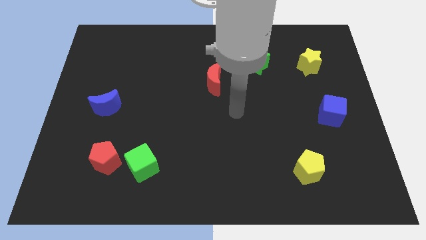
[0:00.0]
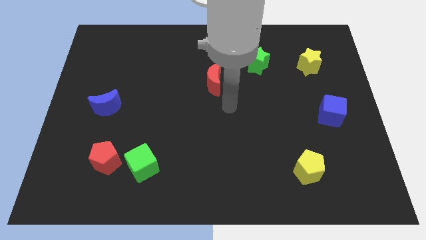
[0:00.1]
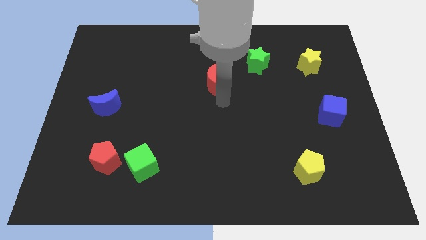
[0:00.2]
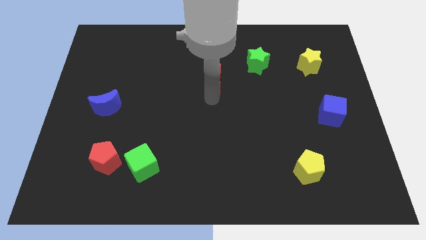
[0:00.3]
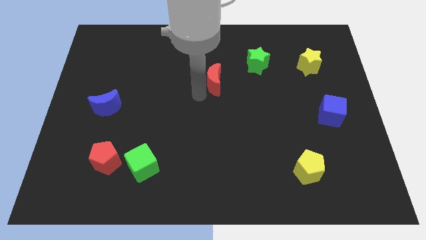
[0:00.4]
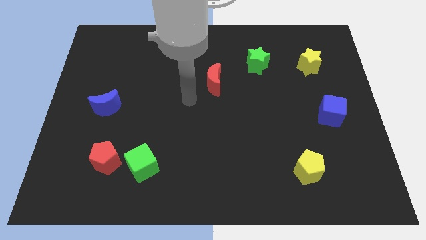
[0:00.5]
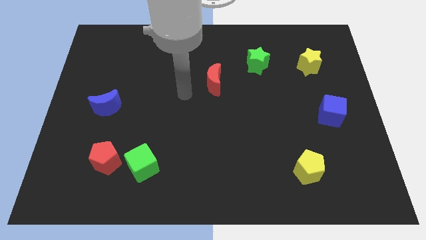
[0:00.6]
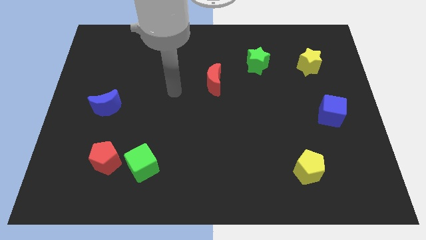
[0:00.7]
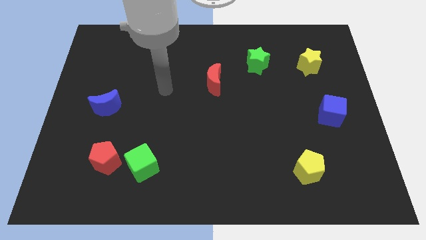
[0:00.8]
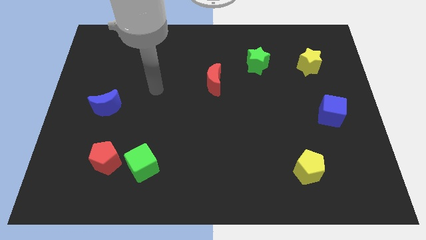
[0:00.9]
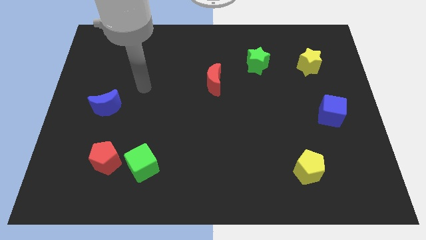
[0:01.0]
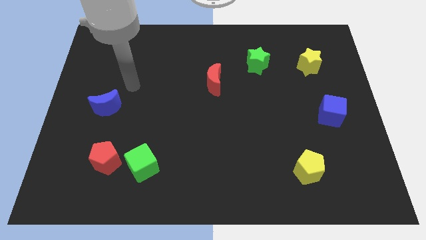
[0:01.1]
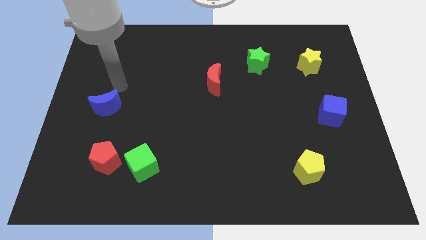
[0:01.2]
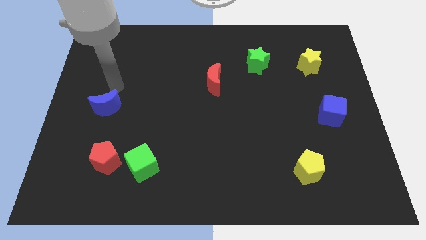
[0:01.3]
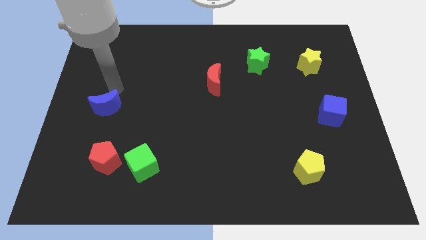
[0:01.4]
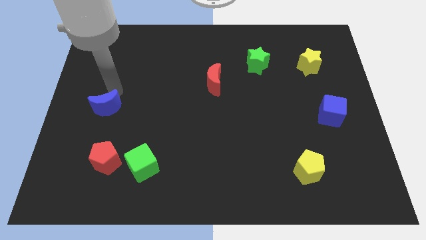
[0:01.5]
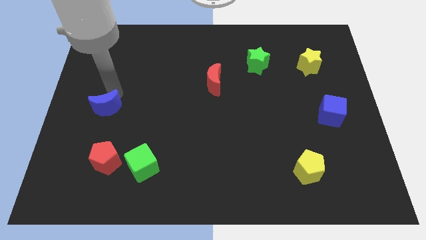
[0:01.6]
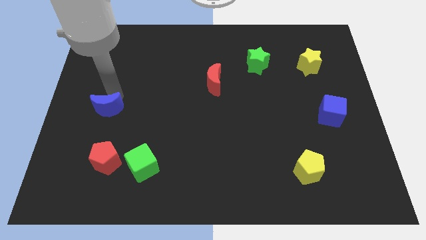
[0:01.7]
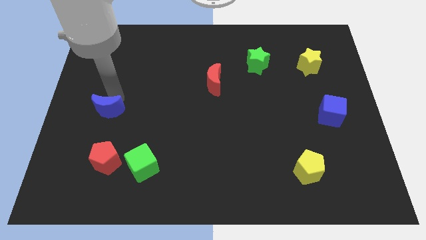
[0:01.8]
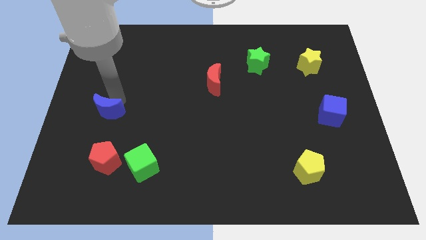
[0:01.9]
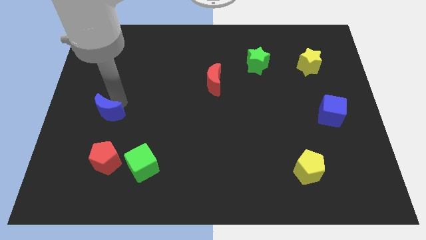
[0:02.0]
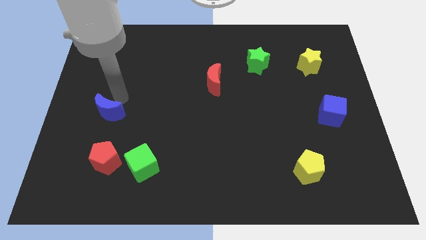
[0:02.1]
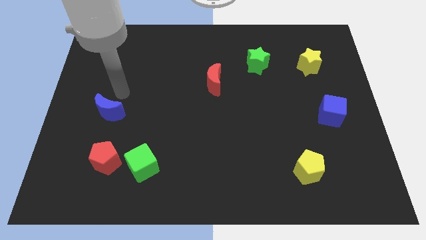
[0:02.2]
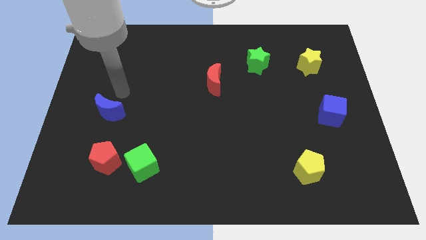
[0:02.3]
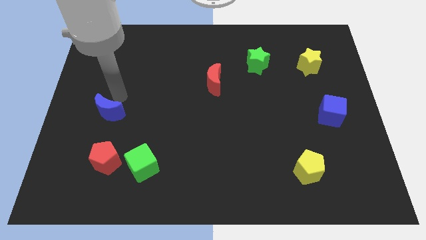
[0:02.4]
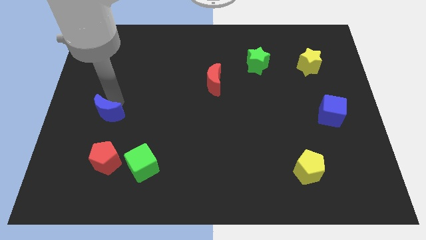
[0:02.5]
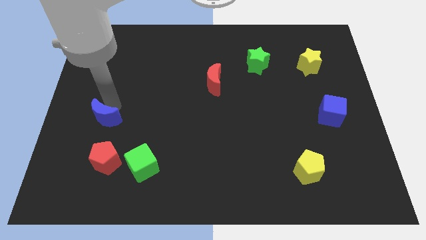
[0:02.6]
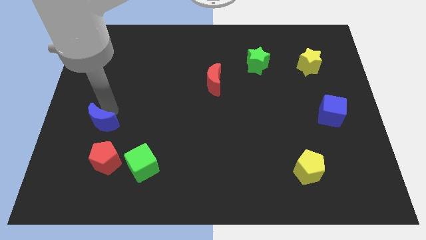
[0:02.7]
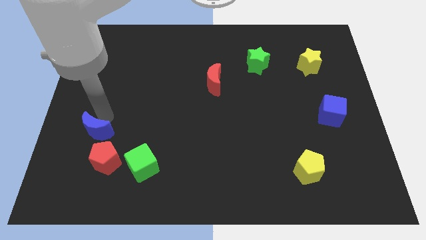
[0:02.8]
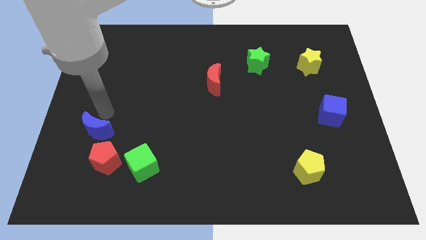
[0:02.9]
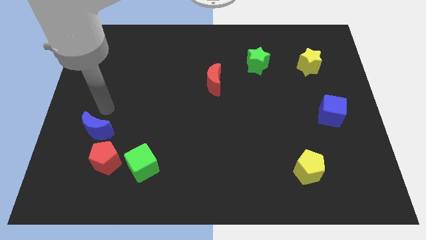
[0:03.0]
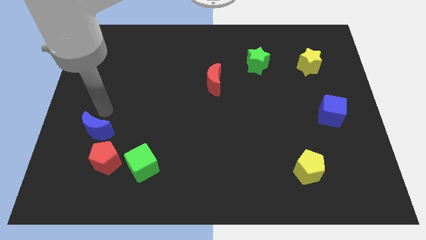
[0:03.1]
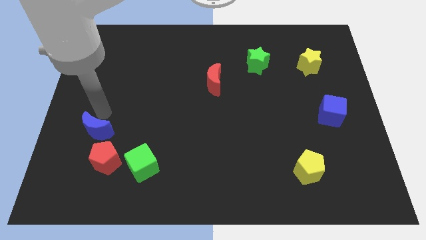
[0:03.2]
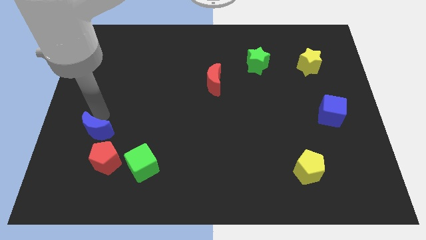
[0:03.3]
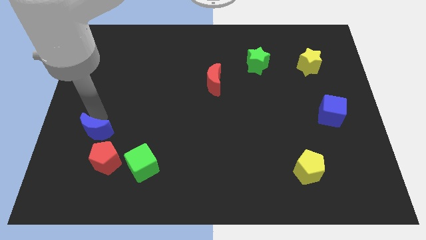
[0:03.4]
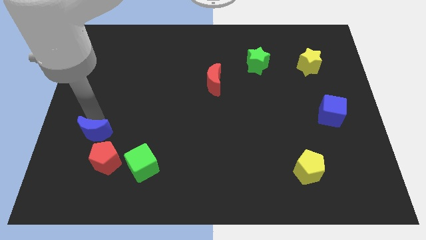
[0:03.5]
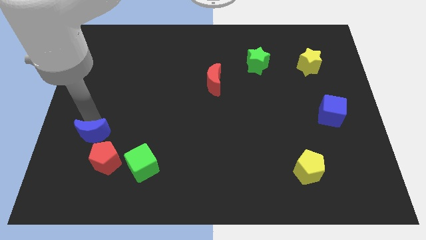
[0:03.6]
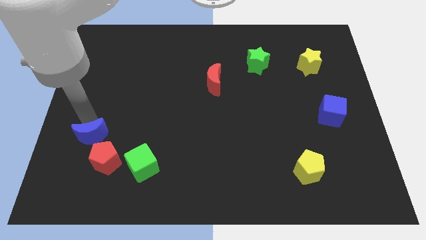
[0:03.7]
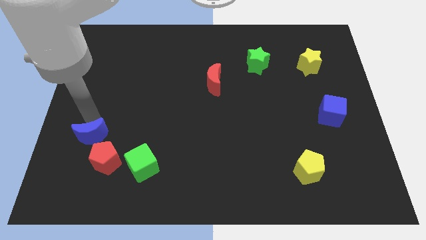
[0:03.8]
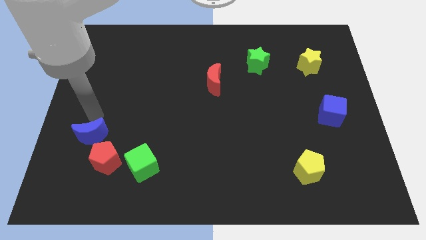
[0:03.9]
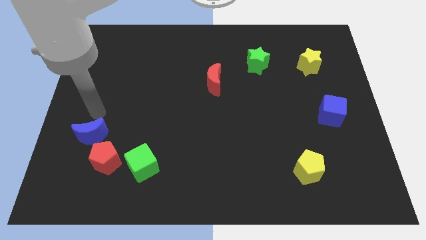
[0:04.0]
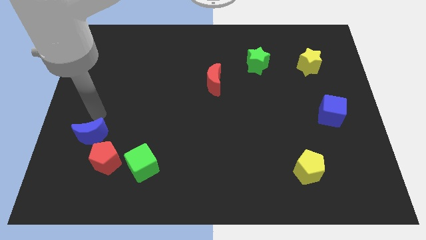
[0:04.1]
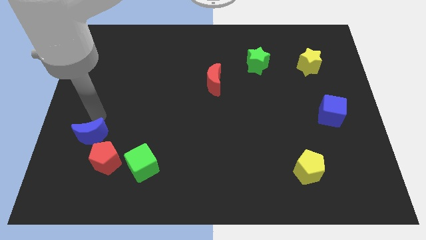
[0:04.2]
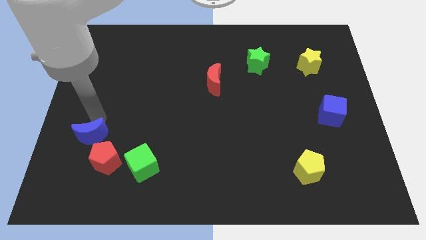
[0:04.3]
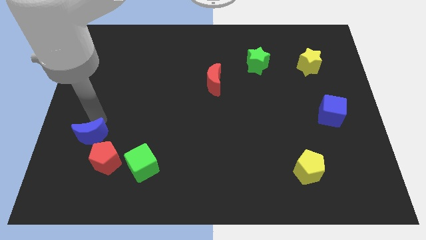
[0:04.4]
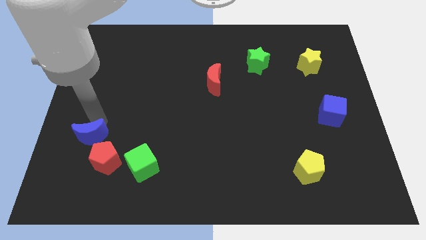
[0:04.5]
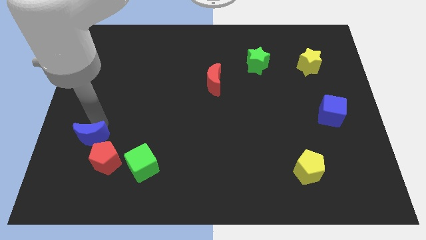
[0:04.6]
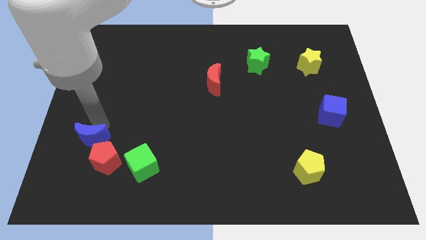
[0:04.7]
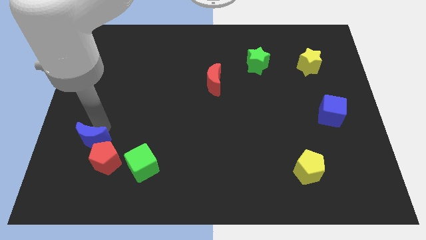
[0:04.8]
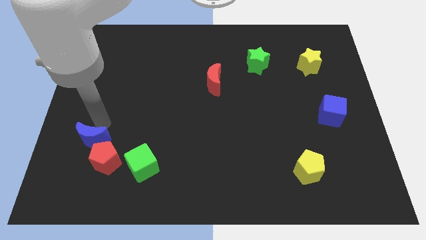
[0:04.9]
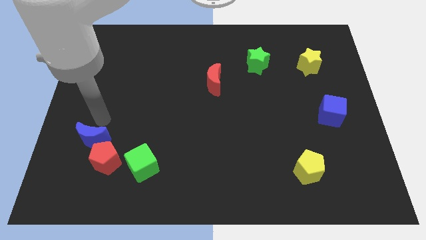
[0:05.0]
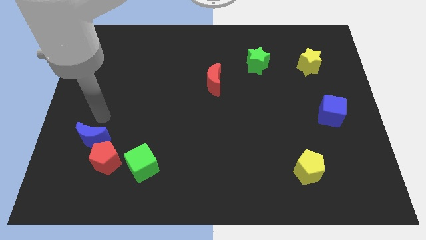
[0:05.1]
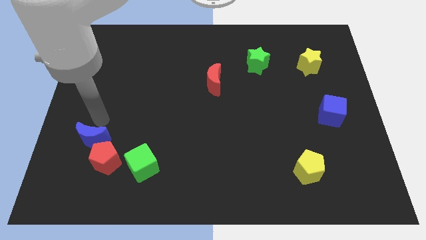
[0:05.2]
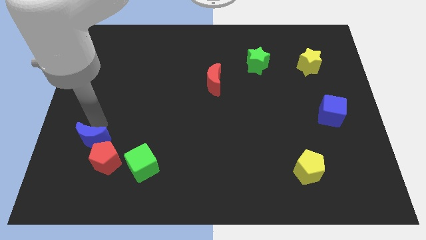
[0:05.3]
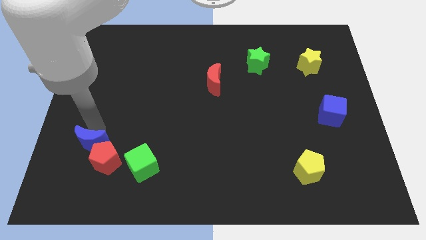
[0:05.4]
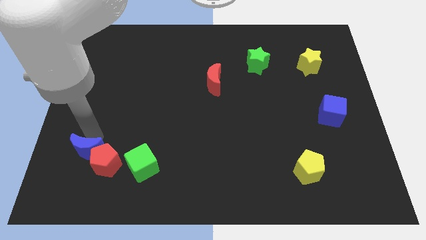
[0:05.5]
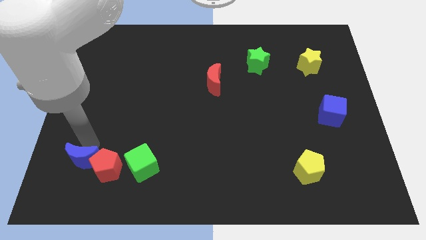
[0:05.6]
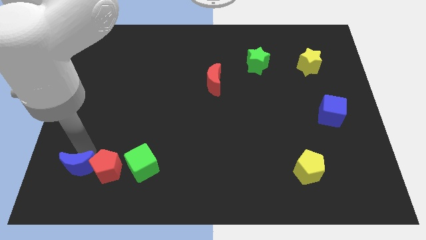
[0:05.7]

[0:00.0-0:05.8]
put the blue moon to the bottom left of the red pentagon

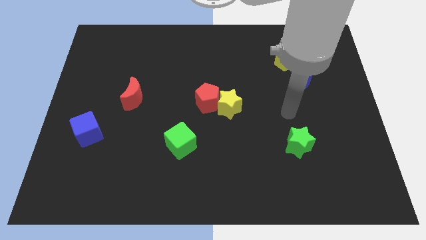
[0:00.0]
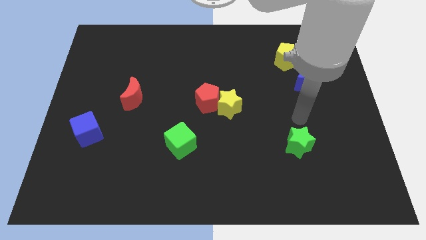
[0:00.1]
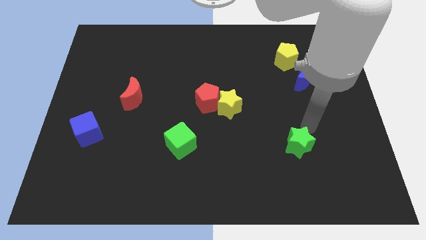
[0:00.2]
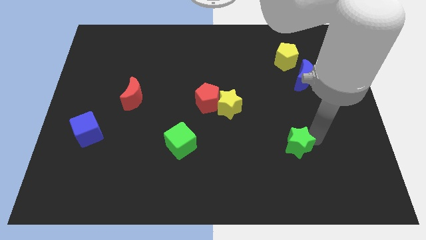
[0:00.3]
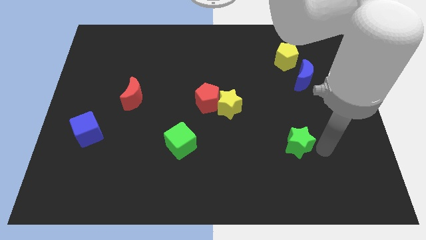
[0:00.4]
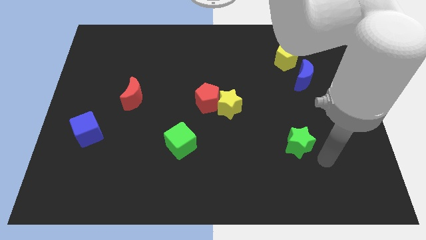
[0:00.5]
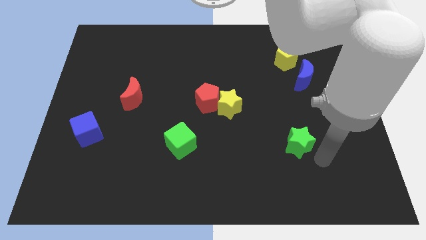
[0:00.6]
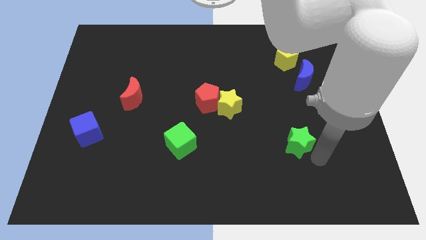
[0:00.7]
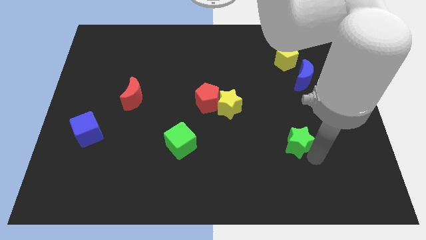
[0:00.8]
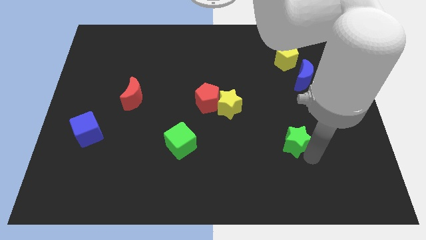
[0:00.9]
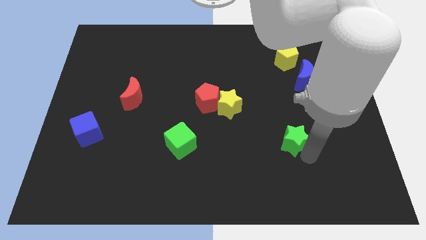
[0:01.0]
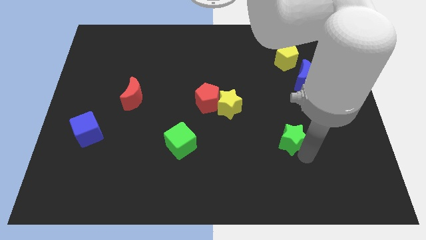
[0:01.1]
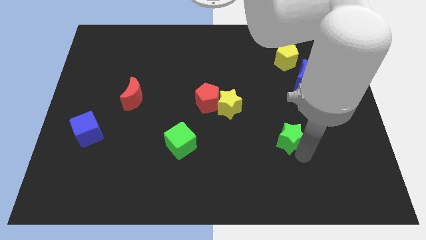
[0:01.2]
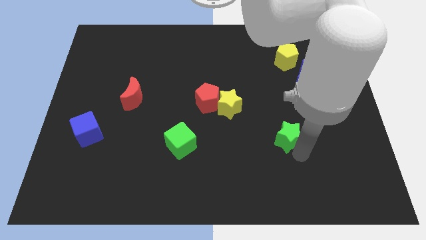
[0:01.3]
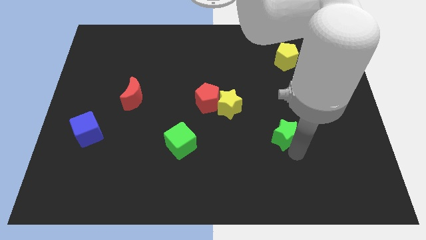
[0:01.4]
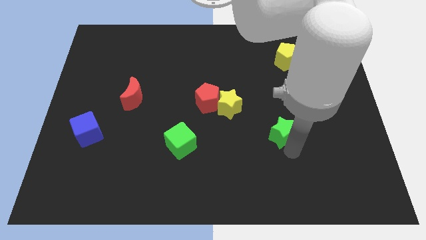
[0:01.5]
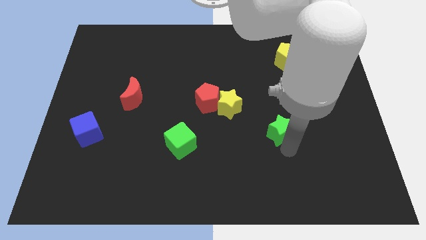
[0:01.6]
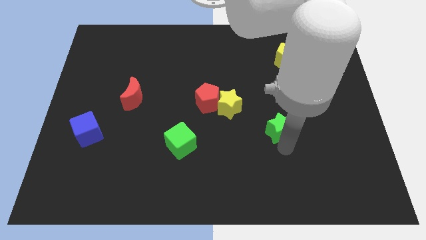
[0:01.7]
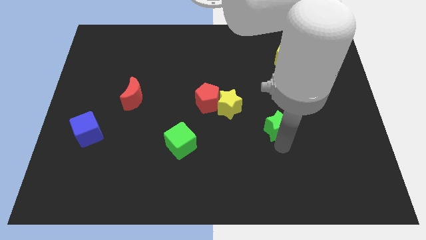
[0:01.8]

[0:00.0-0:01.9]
slide the green star to the bottom right of the yellow star
